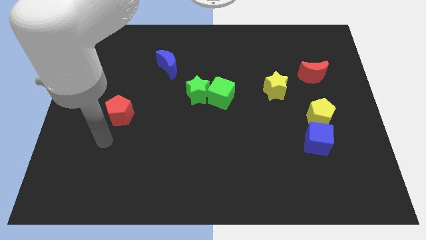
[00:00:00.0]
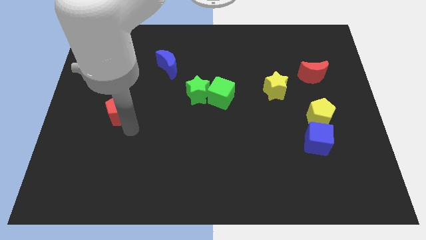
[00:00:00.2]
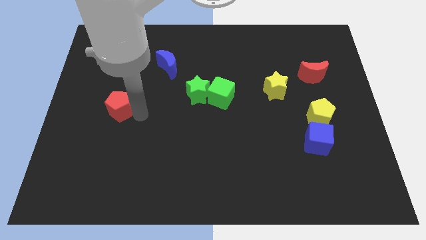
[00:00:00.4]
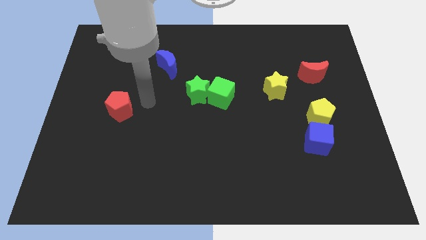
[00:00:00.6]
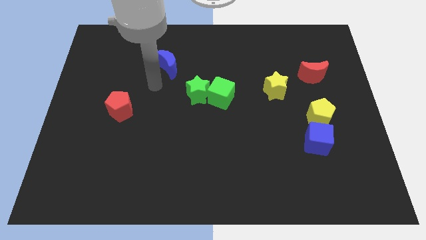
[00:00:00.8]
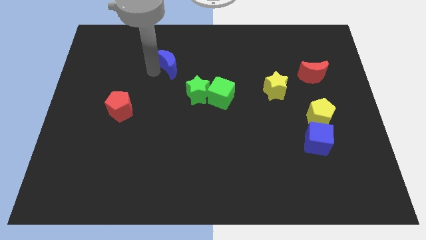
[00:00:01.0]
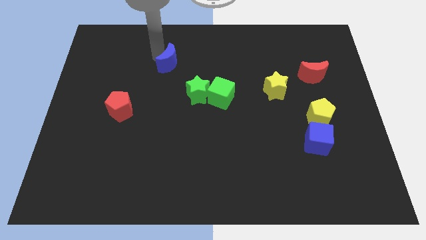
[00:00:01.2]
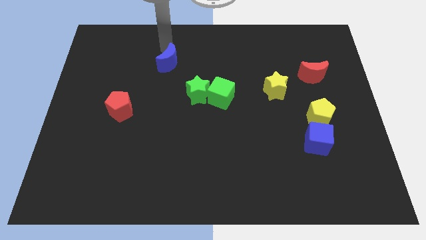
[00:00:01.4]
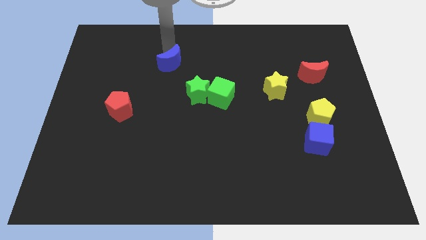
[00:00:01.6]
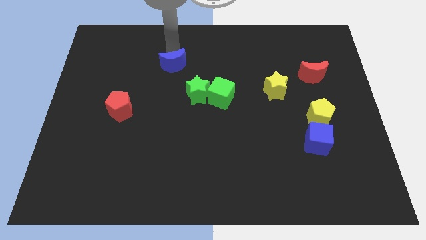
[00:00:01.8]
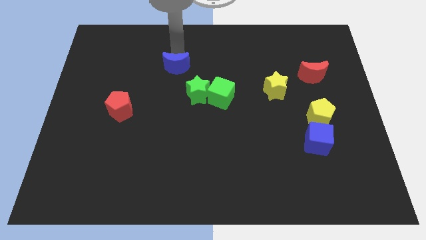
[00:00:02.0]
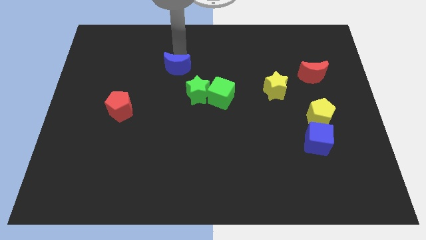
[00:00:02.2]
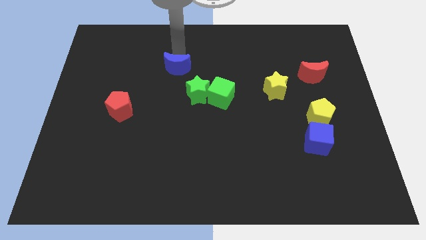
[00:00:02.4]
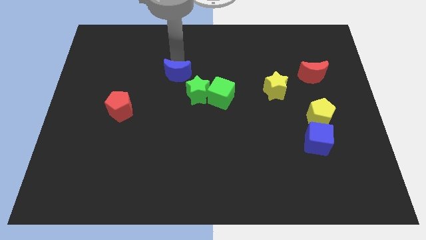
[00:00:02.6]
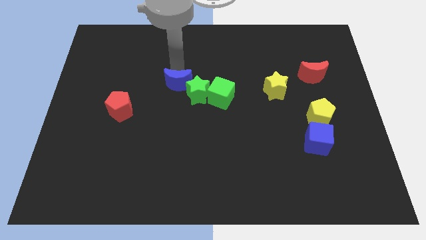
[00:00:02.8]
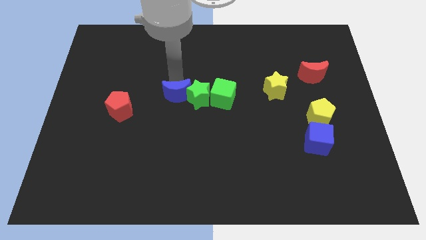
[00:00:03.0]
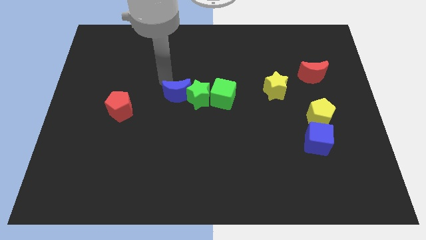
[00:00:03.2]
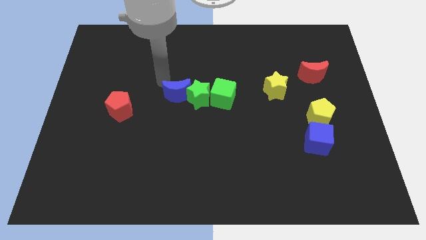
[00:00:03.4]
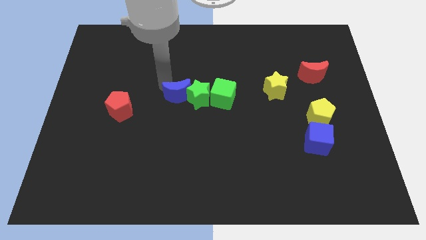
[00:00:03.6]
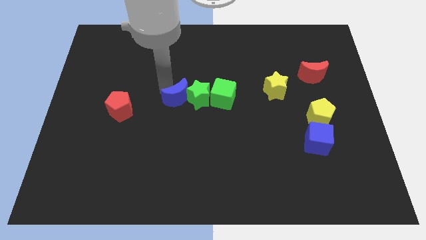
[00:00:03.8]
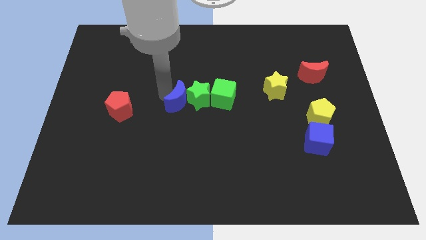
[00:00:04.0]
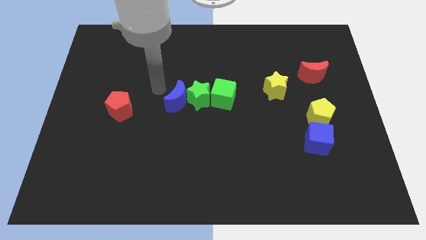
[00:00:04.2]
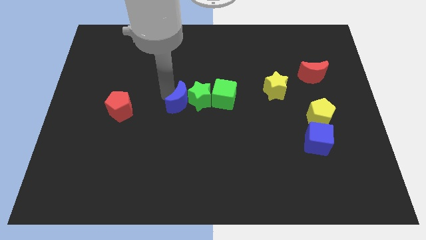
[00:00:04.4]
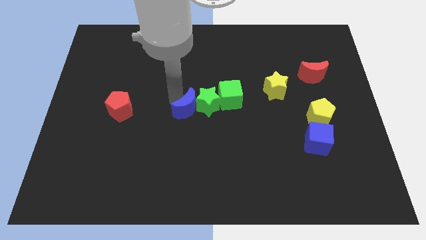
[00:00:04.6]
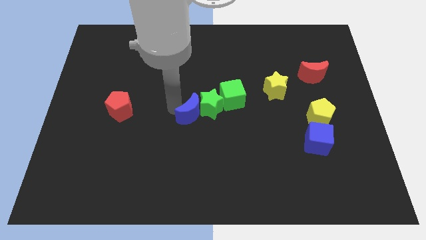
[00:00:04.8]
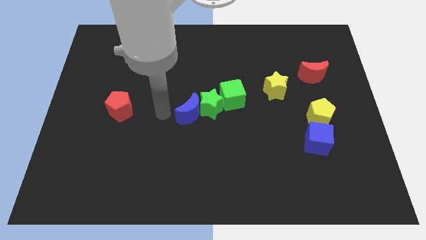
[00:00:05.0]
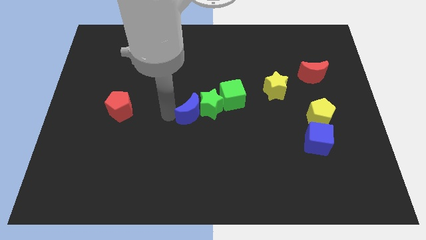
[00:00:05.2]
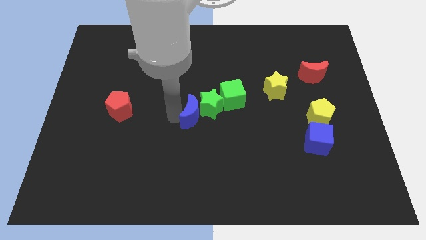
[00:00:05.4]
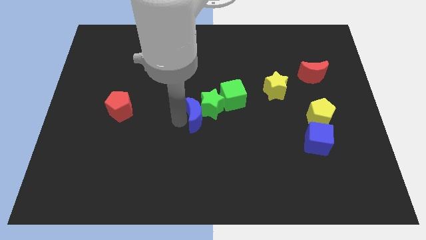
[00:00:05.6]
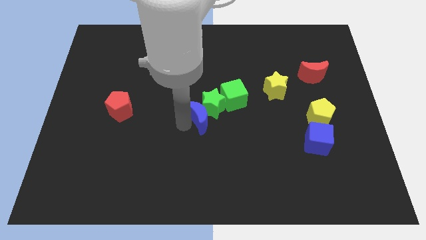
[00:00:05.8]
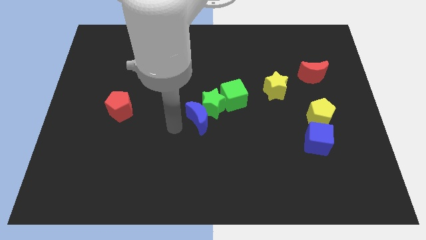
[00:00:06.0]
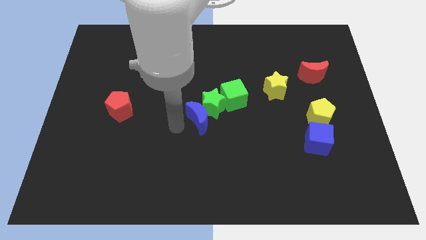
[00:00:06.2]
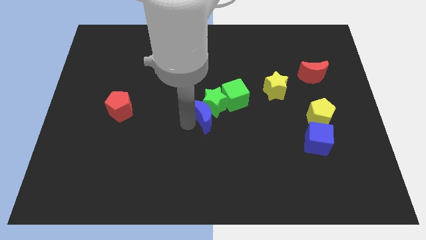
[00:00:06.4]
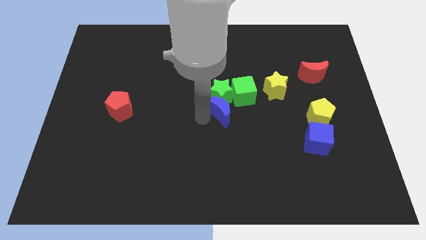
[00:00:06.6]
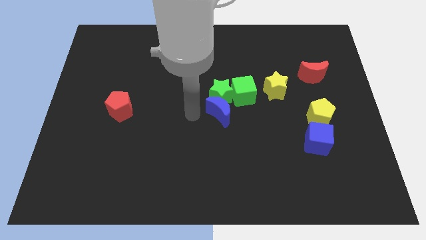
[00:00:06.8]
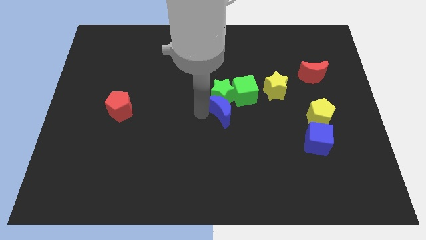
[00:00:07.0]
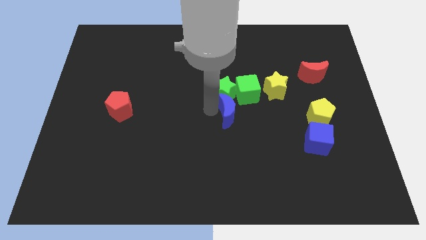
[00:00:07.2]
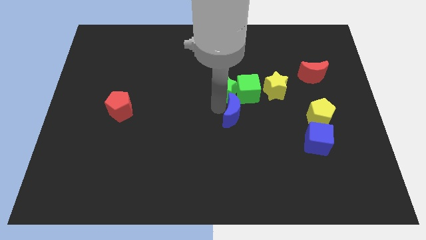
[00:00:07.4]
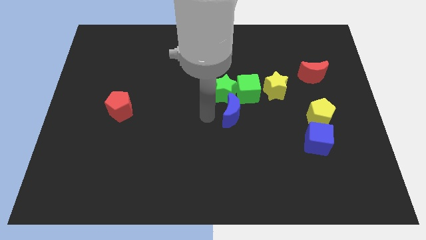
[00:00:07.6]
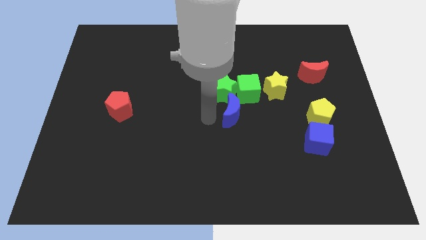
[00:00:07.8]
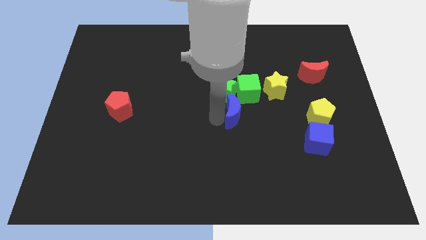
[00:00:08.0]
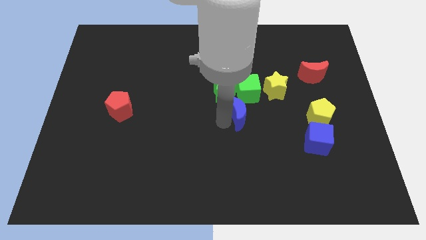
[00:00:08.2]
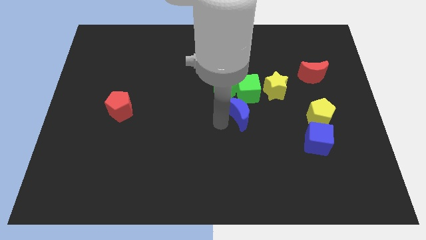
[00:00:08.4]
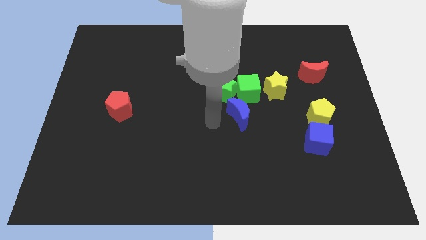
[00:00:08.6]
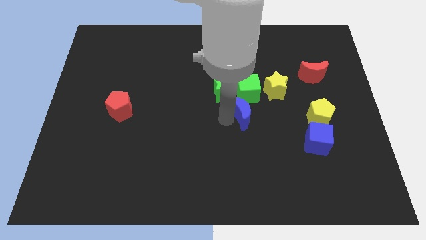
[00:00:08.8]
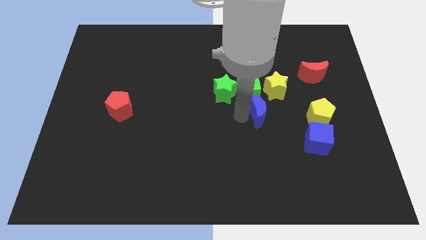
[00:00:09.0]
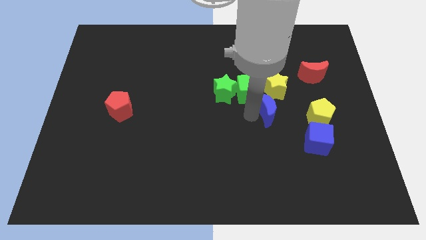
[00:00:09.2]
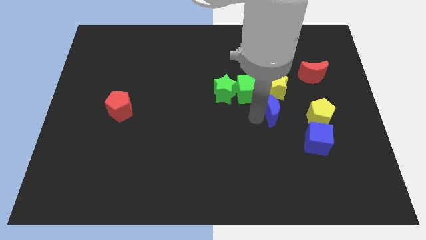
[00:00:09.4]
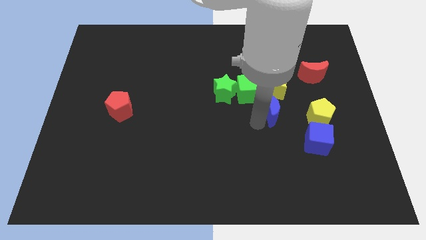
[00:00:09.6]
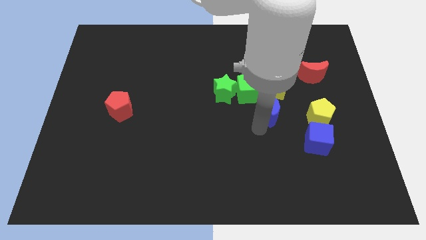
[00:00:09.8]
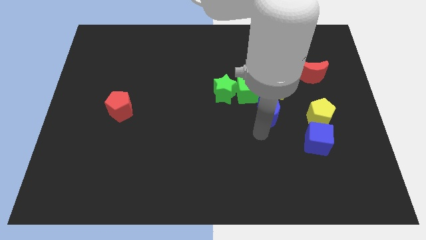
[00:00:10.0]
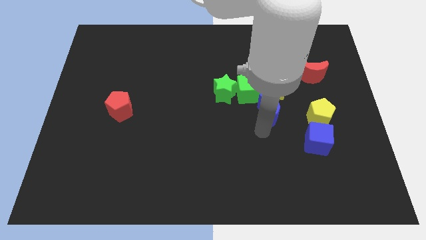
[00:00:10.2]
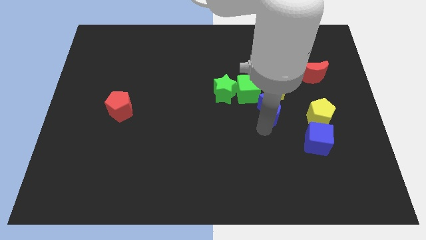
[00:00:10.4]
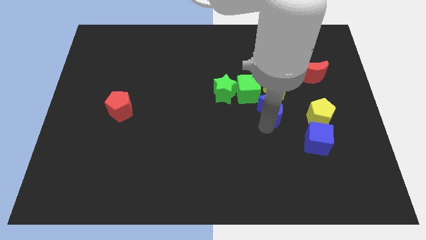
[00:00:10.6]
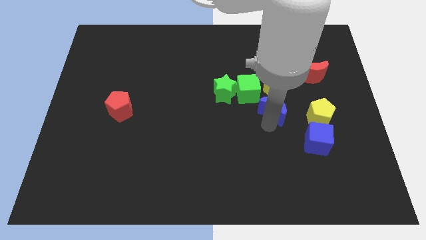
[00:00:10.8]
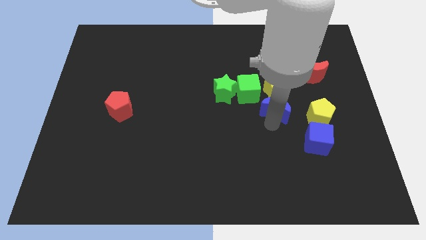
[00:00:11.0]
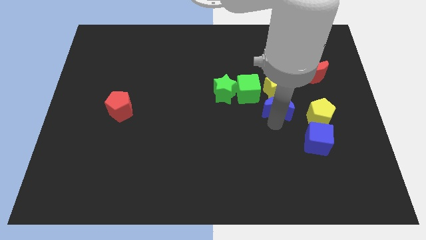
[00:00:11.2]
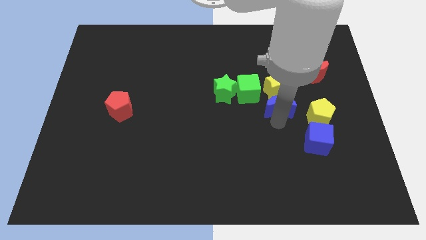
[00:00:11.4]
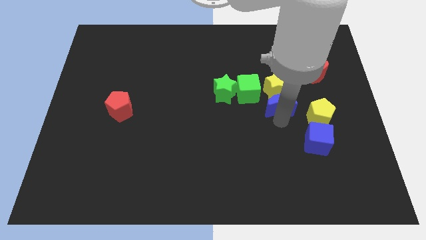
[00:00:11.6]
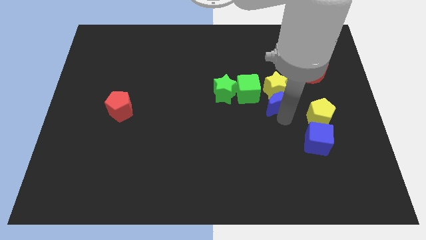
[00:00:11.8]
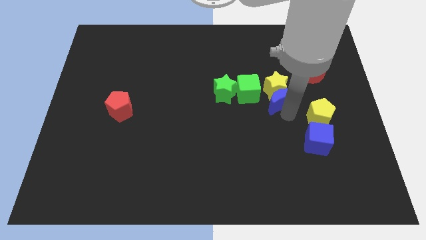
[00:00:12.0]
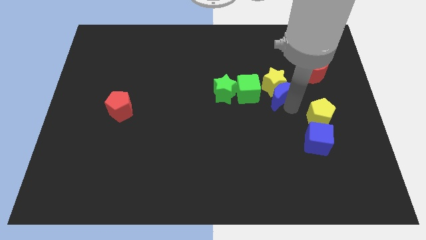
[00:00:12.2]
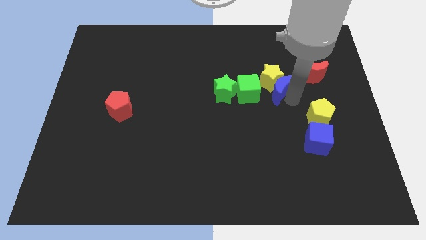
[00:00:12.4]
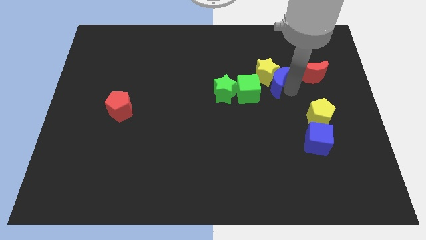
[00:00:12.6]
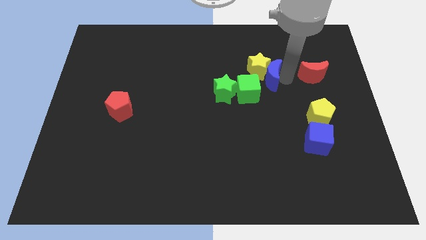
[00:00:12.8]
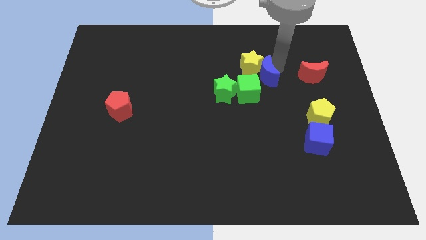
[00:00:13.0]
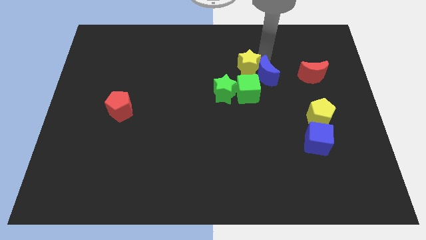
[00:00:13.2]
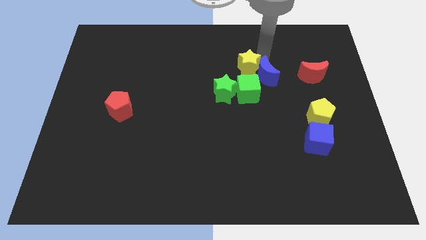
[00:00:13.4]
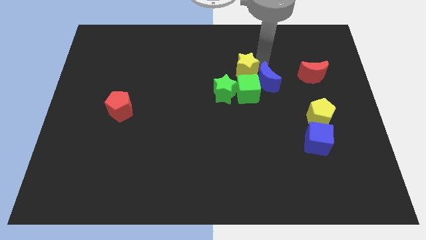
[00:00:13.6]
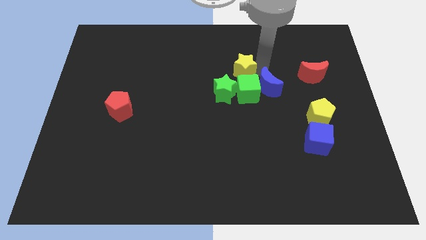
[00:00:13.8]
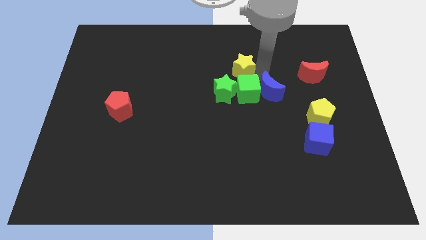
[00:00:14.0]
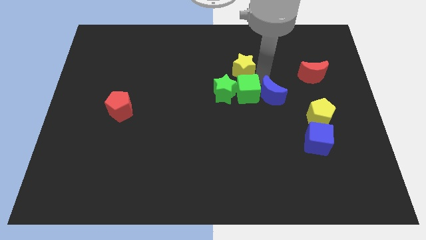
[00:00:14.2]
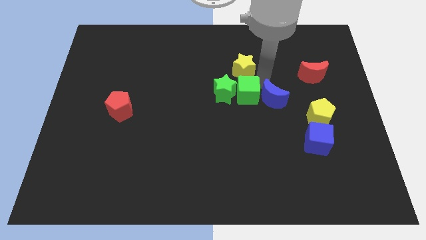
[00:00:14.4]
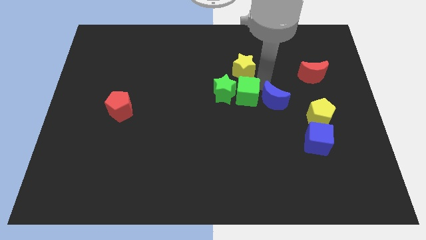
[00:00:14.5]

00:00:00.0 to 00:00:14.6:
move the blue moon to the bottom right of the green cube
